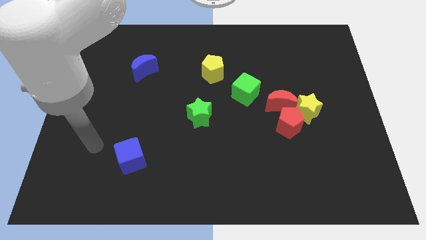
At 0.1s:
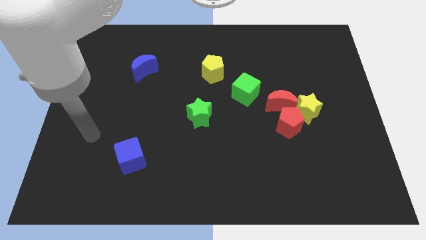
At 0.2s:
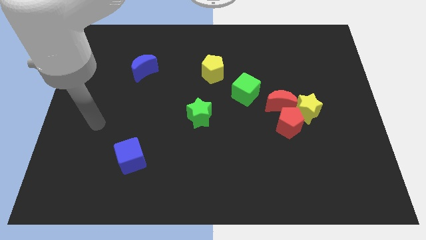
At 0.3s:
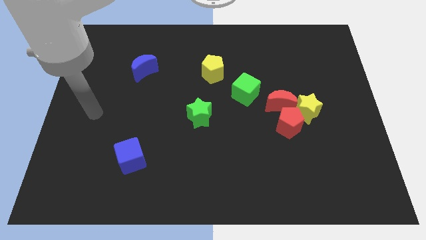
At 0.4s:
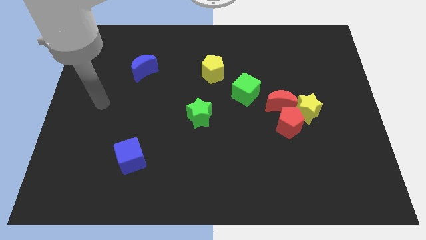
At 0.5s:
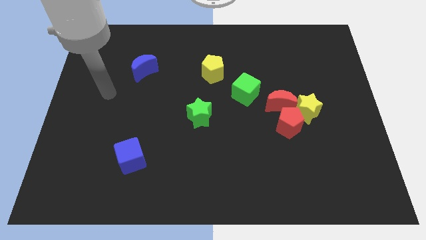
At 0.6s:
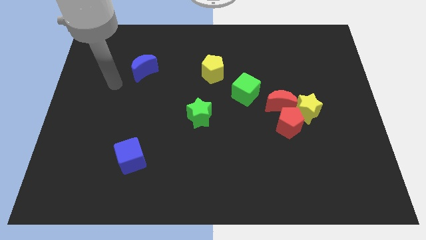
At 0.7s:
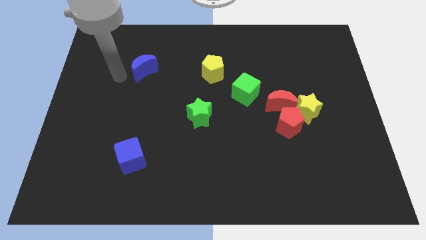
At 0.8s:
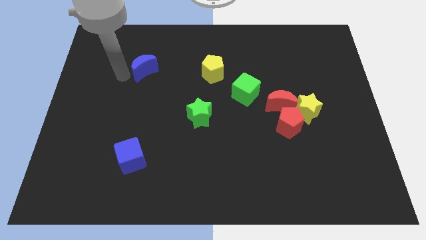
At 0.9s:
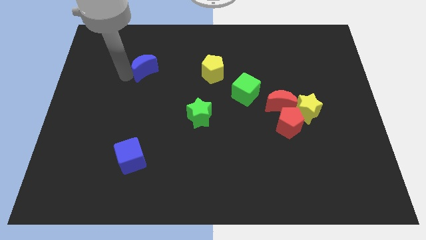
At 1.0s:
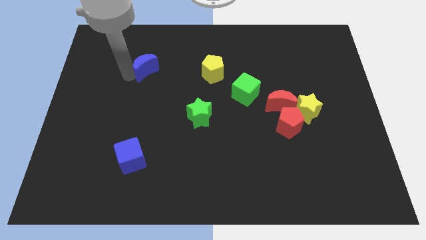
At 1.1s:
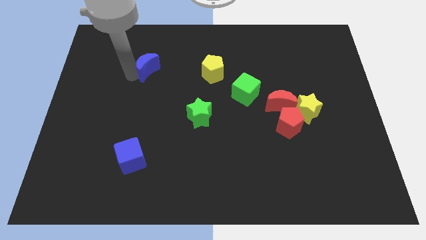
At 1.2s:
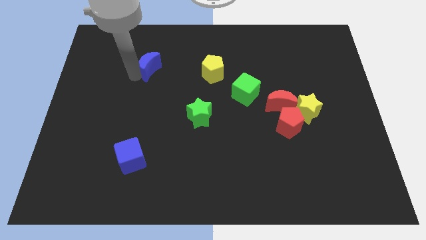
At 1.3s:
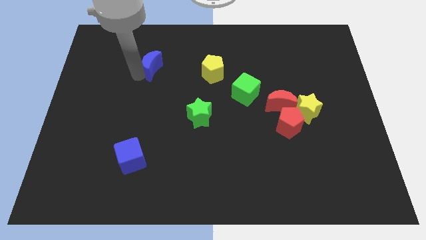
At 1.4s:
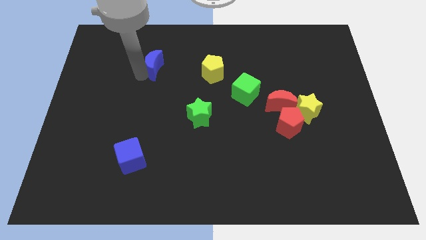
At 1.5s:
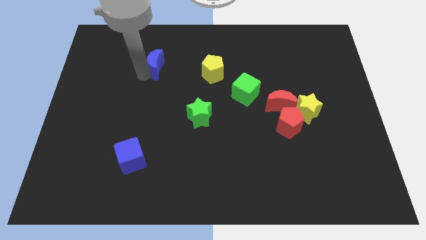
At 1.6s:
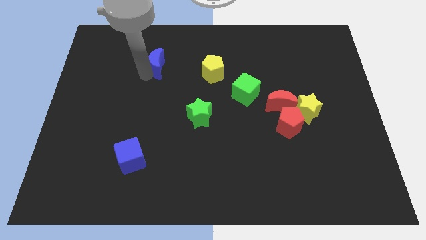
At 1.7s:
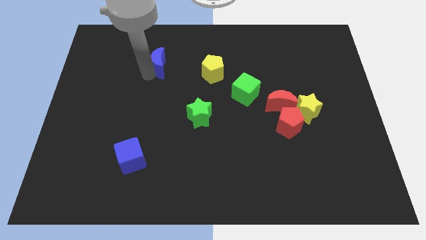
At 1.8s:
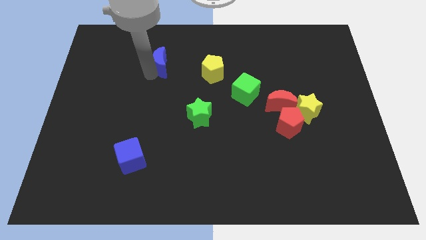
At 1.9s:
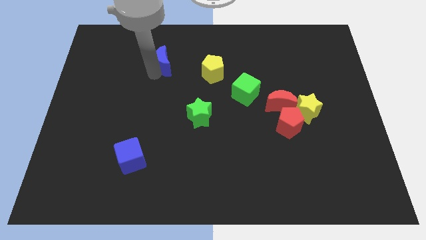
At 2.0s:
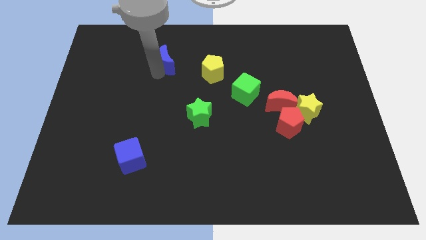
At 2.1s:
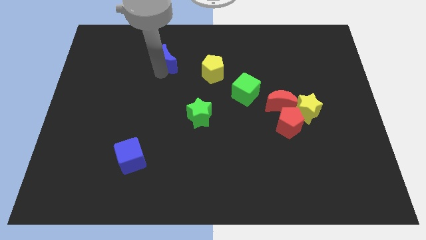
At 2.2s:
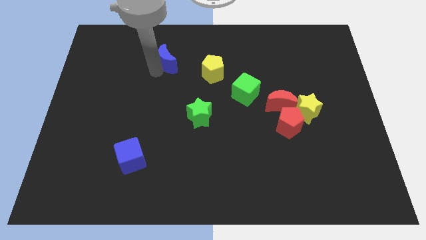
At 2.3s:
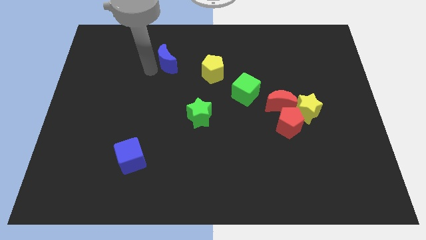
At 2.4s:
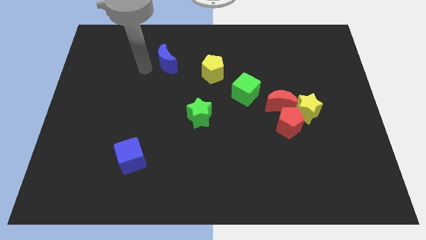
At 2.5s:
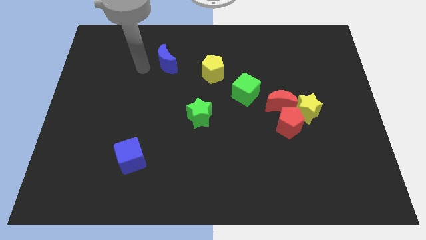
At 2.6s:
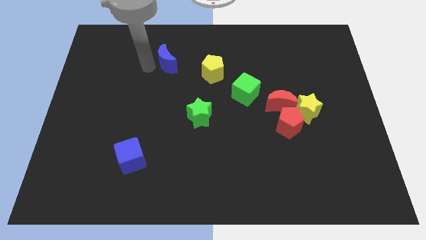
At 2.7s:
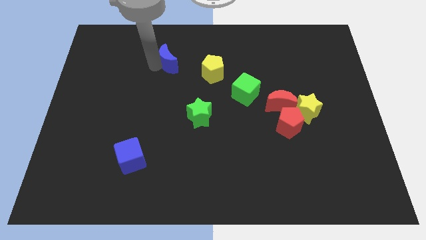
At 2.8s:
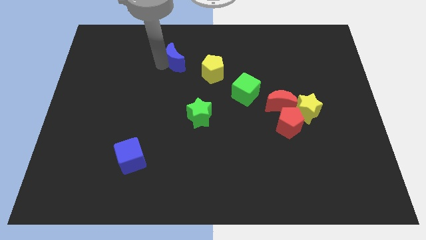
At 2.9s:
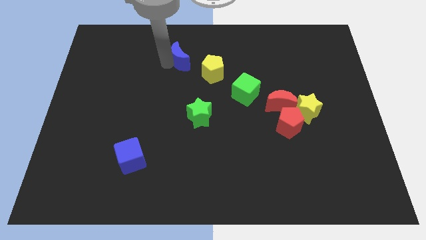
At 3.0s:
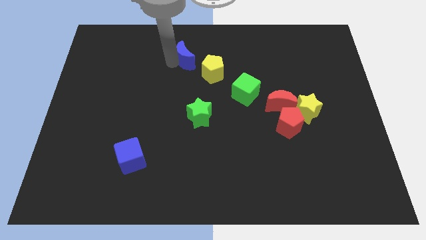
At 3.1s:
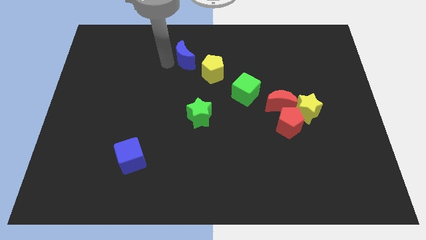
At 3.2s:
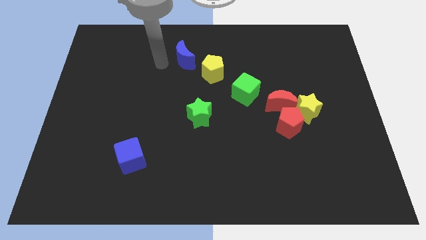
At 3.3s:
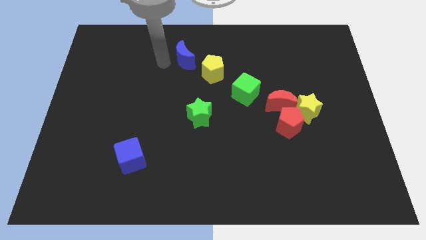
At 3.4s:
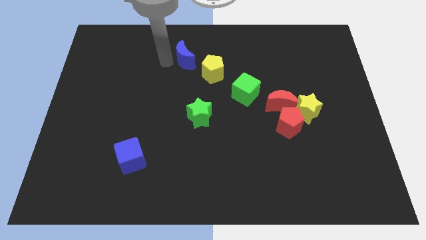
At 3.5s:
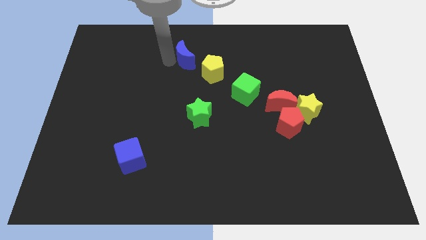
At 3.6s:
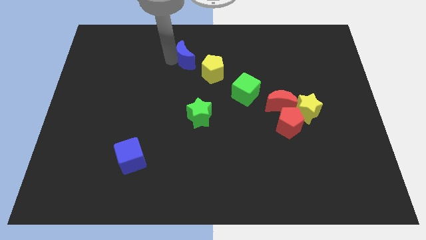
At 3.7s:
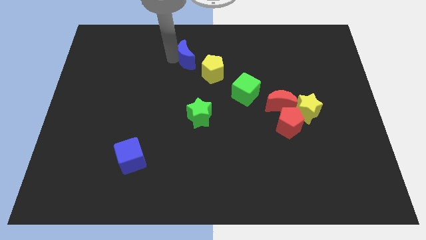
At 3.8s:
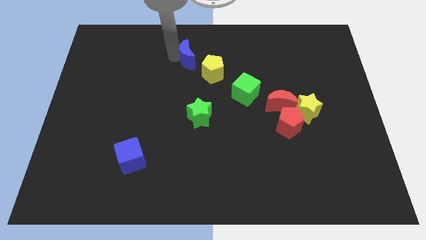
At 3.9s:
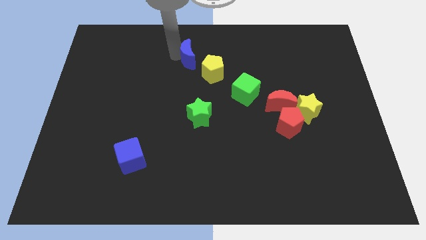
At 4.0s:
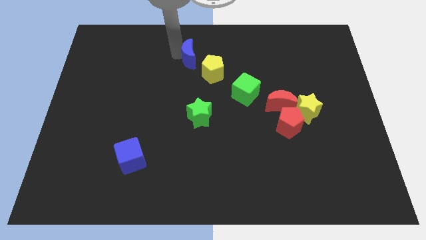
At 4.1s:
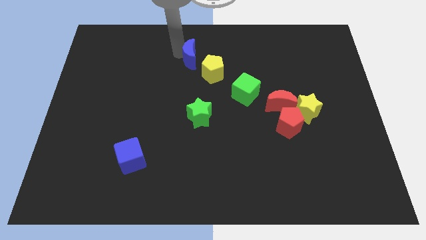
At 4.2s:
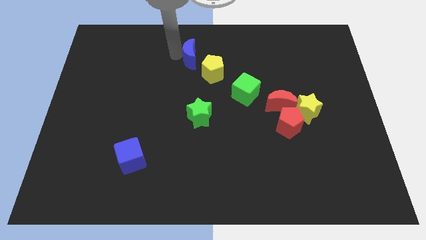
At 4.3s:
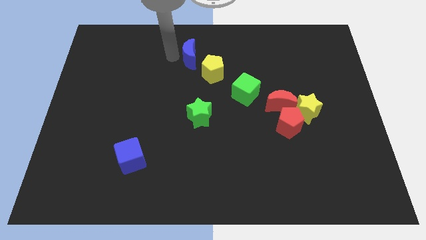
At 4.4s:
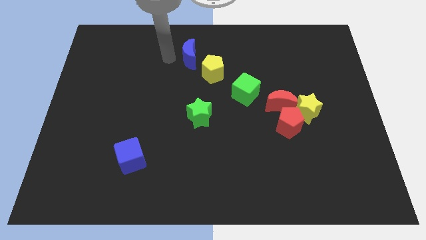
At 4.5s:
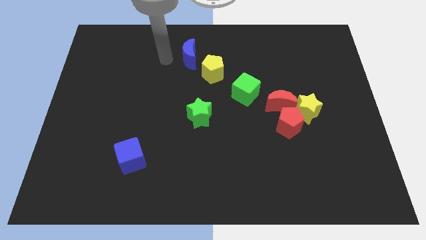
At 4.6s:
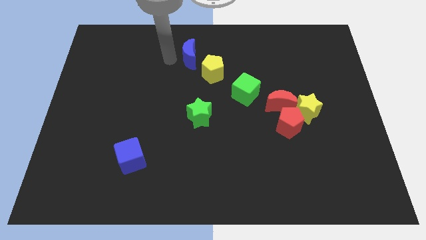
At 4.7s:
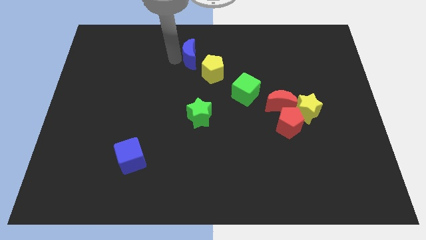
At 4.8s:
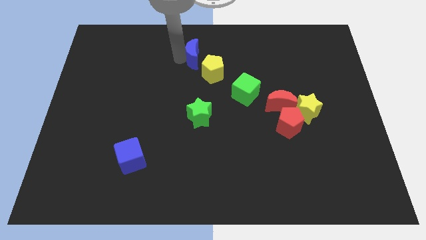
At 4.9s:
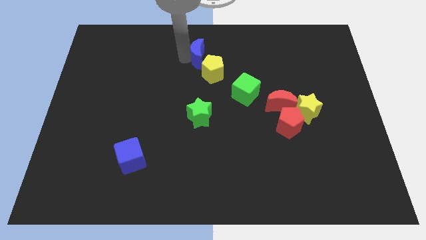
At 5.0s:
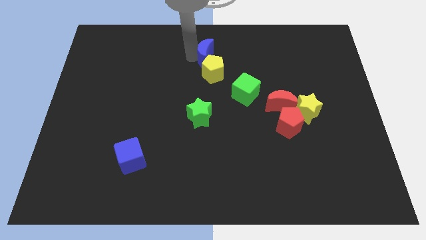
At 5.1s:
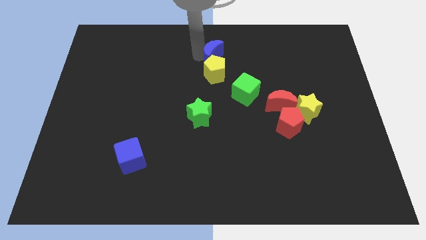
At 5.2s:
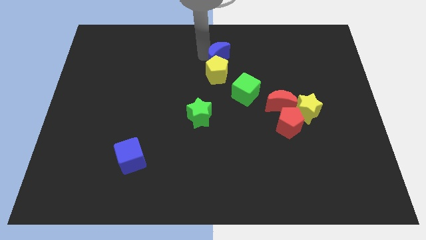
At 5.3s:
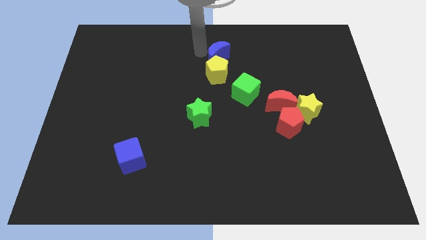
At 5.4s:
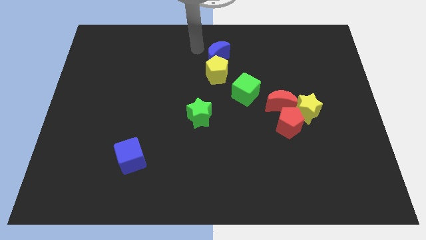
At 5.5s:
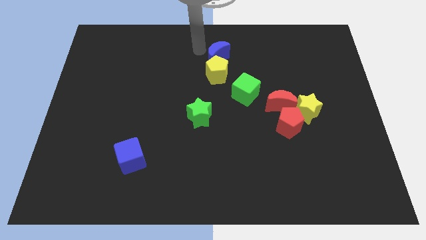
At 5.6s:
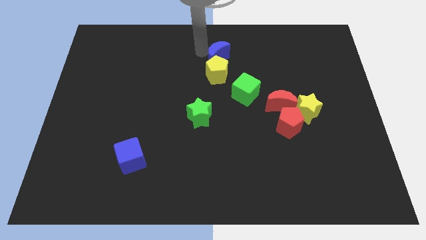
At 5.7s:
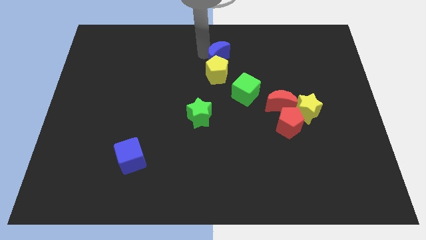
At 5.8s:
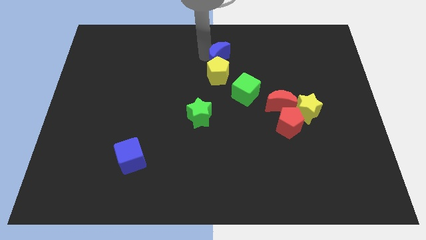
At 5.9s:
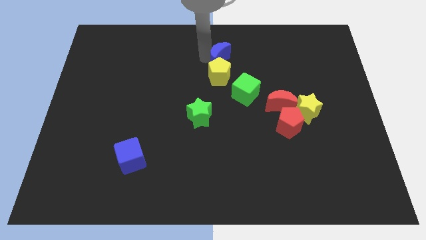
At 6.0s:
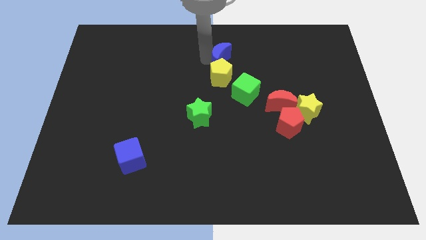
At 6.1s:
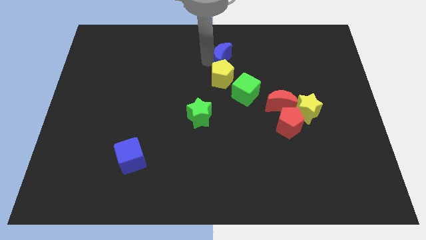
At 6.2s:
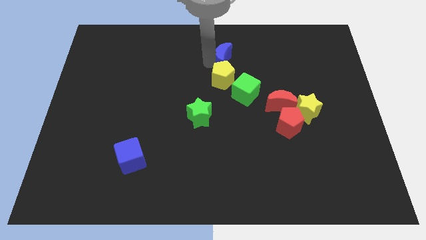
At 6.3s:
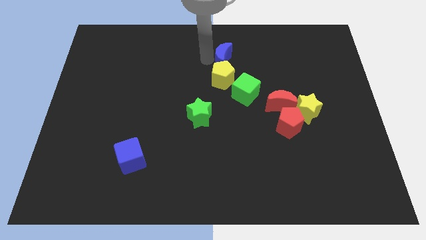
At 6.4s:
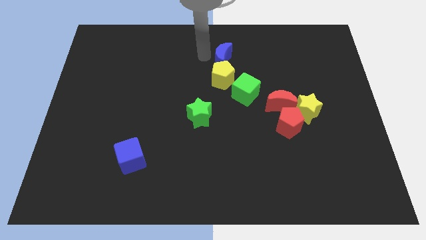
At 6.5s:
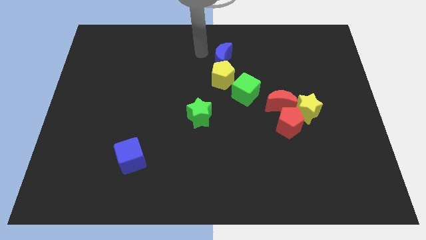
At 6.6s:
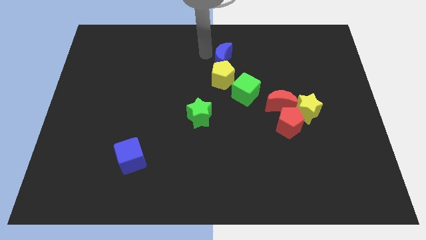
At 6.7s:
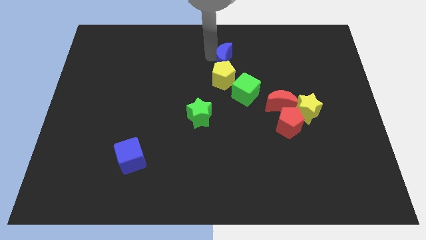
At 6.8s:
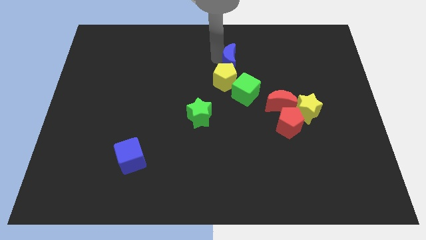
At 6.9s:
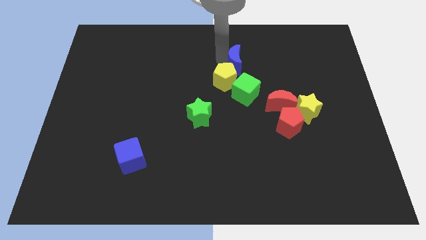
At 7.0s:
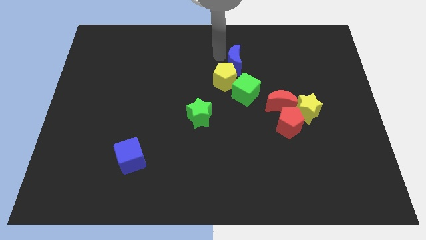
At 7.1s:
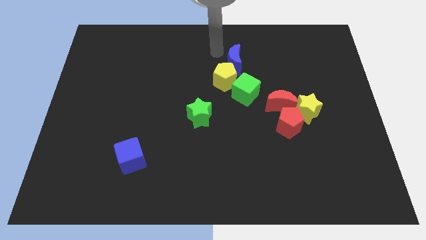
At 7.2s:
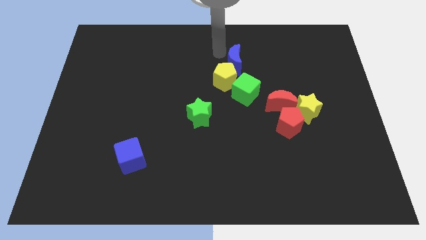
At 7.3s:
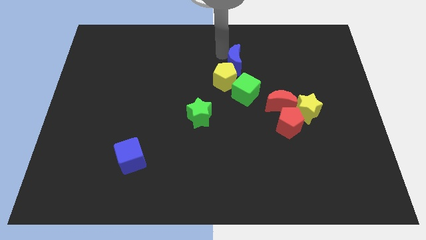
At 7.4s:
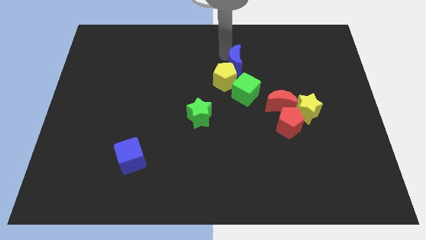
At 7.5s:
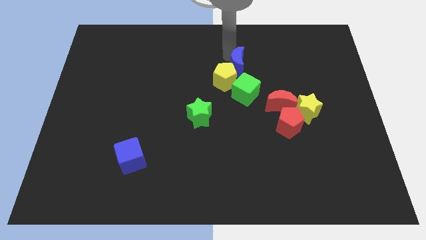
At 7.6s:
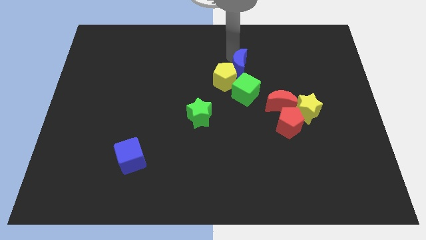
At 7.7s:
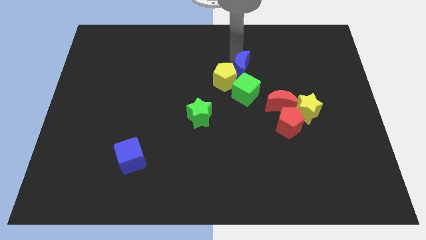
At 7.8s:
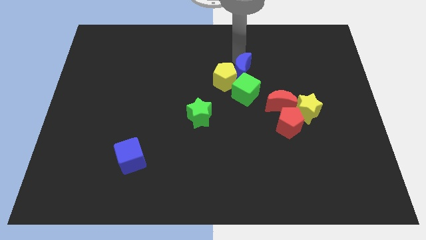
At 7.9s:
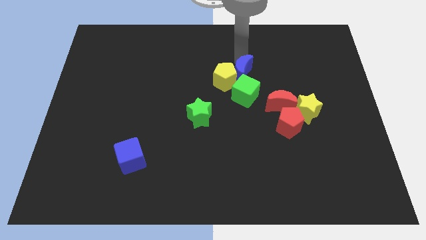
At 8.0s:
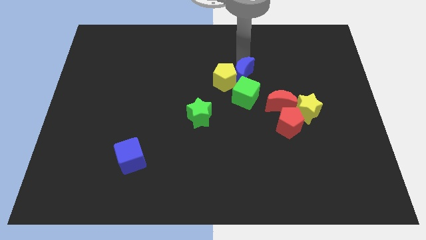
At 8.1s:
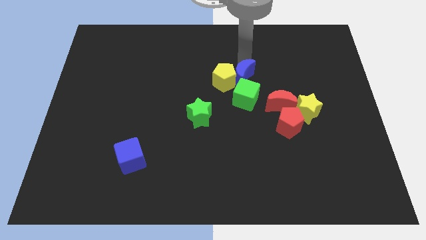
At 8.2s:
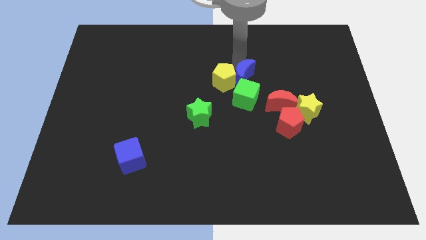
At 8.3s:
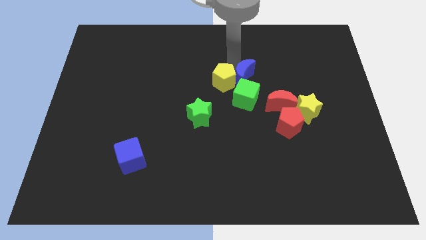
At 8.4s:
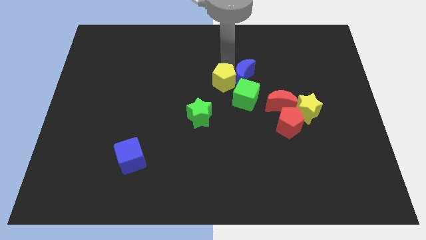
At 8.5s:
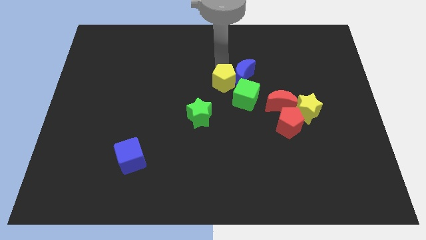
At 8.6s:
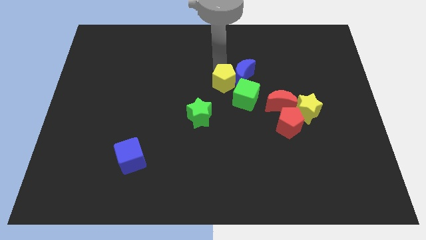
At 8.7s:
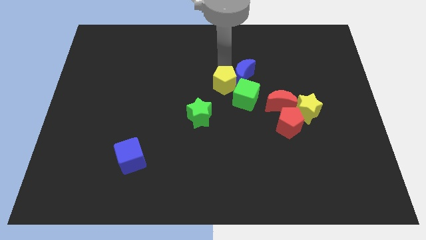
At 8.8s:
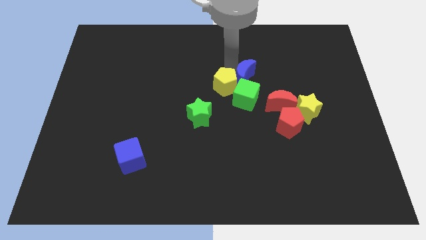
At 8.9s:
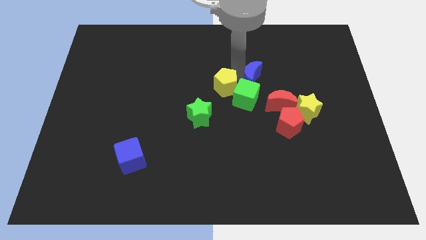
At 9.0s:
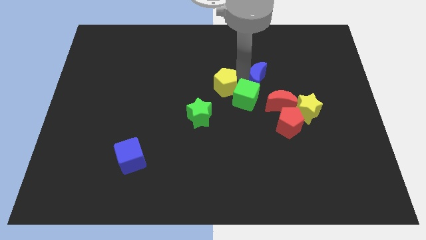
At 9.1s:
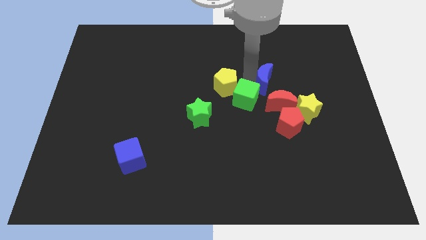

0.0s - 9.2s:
put the blue moon to the top of the red pentagon
